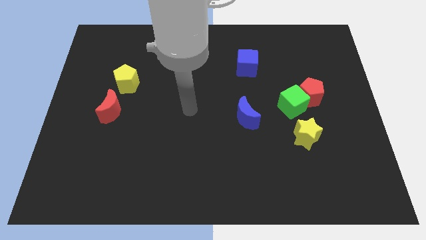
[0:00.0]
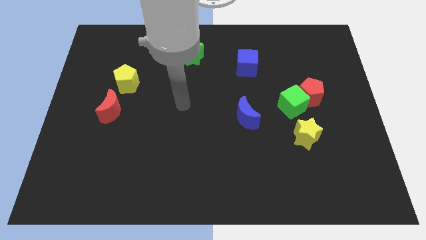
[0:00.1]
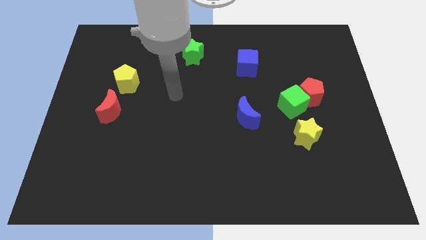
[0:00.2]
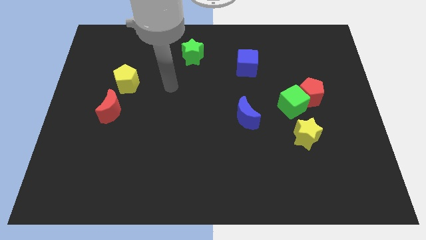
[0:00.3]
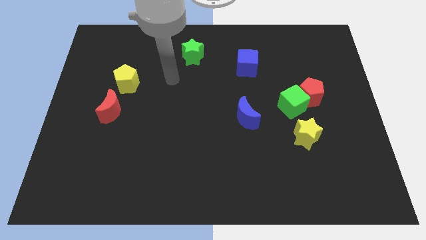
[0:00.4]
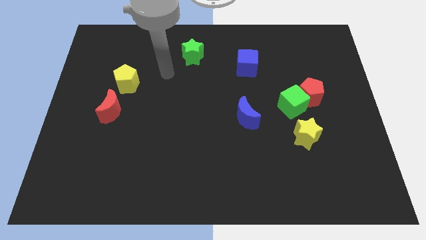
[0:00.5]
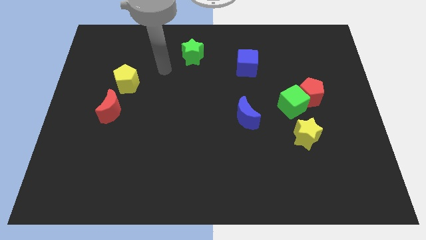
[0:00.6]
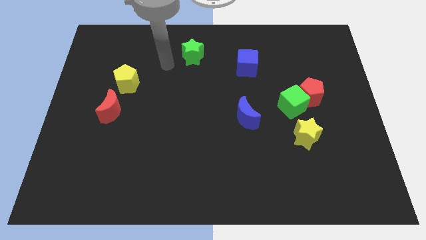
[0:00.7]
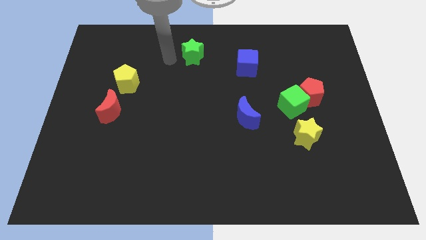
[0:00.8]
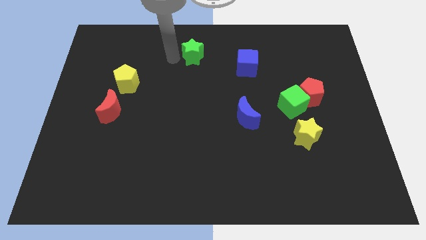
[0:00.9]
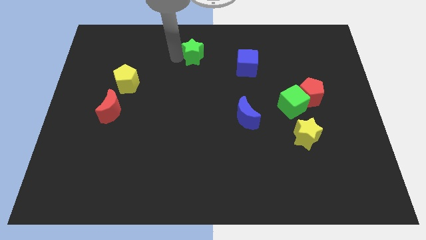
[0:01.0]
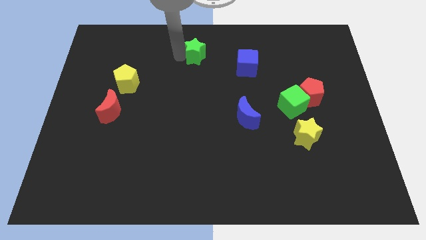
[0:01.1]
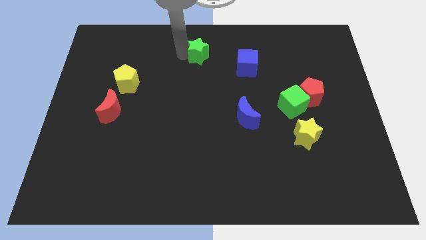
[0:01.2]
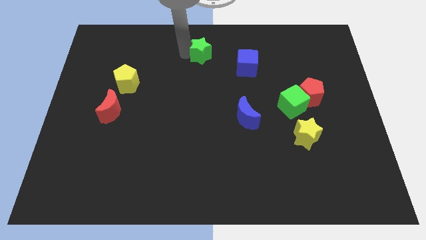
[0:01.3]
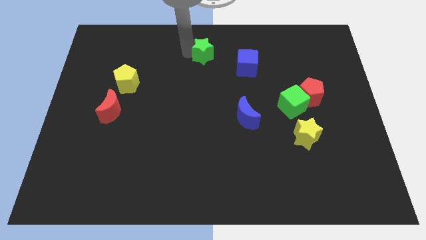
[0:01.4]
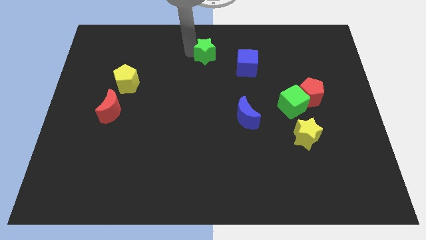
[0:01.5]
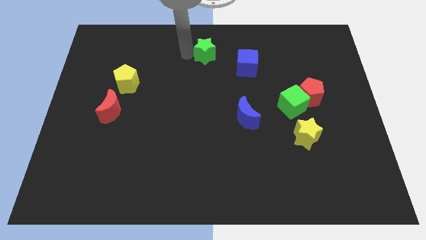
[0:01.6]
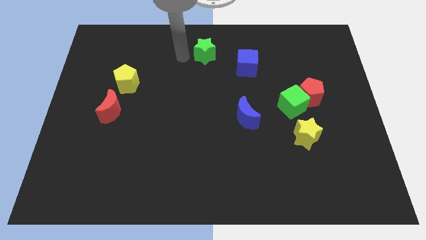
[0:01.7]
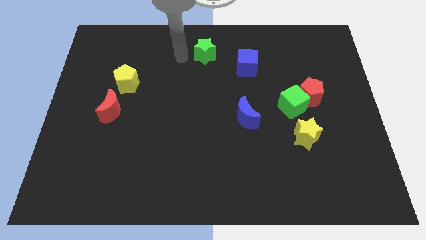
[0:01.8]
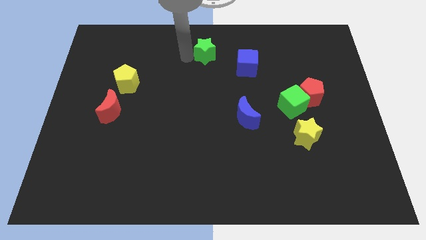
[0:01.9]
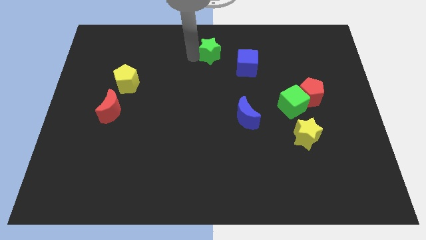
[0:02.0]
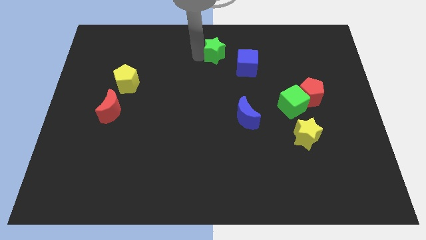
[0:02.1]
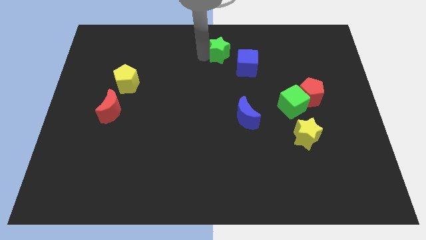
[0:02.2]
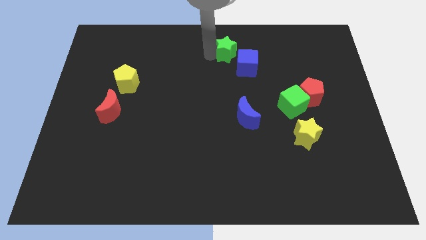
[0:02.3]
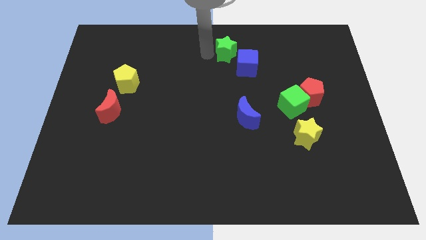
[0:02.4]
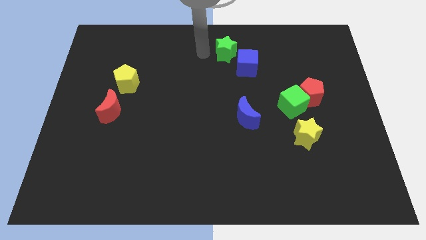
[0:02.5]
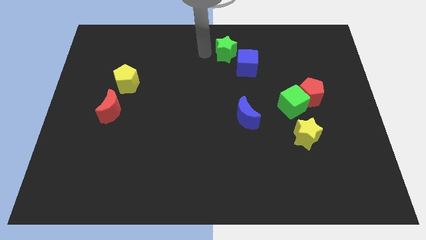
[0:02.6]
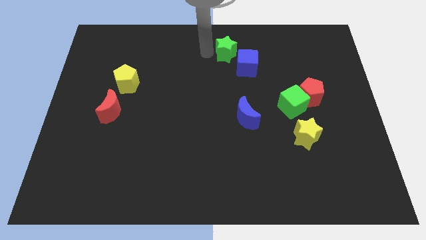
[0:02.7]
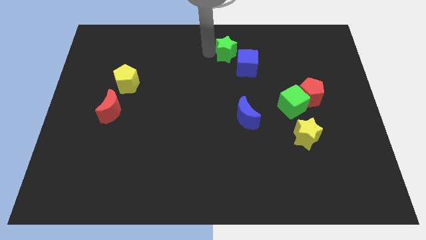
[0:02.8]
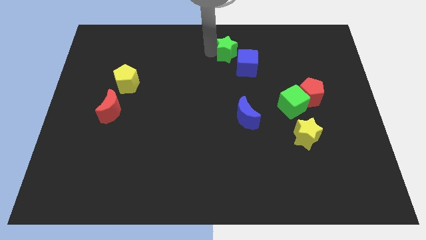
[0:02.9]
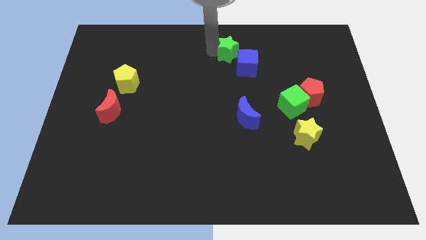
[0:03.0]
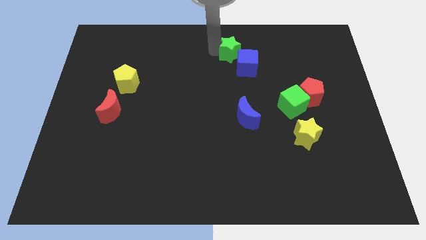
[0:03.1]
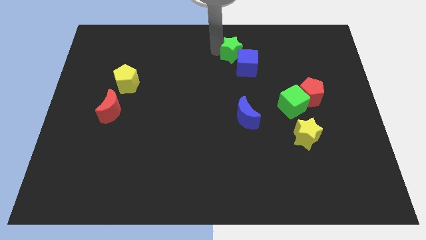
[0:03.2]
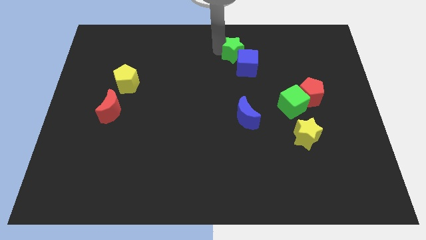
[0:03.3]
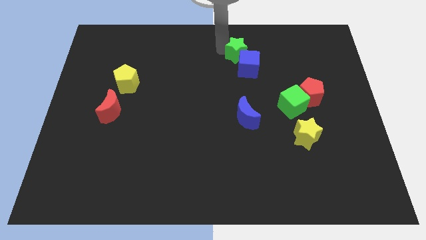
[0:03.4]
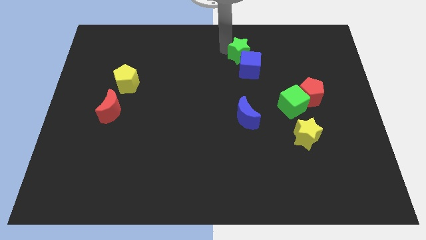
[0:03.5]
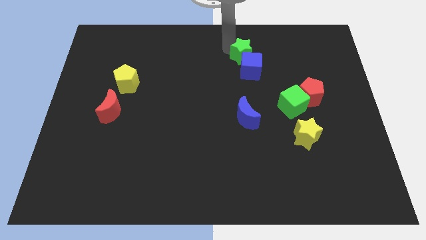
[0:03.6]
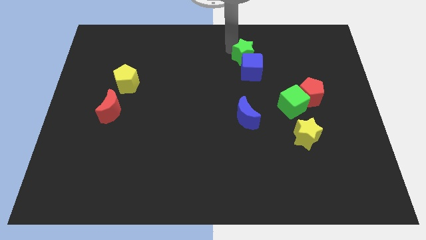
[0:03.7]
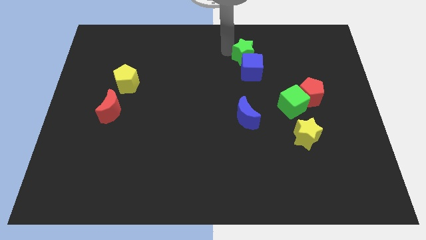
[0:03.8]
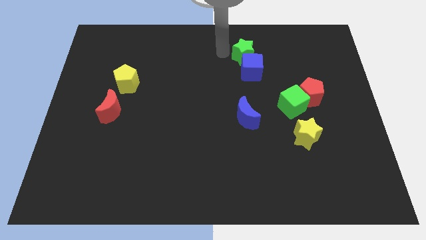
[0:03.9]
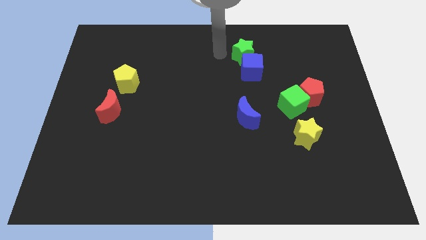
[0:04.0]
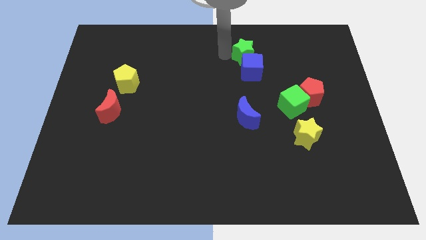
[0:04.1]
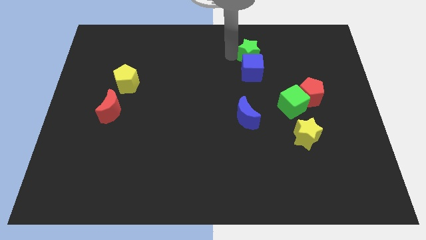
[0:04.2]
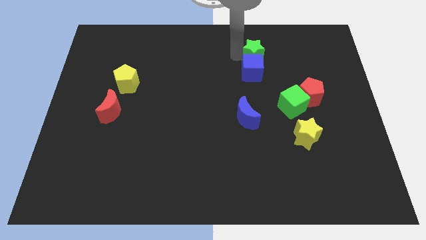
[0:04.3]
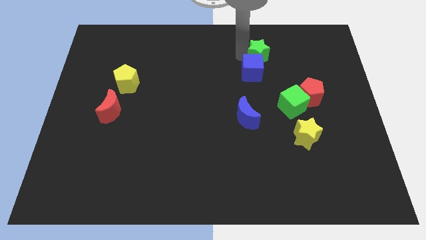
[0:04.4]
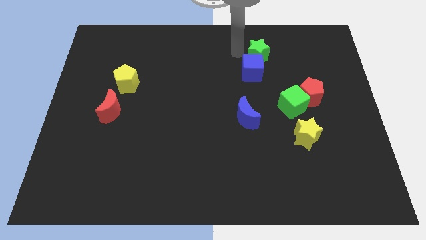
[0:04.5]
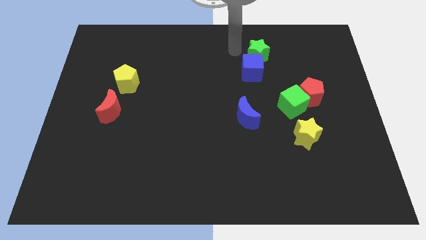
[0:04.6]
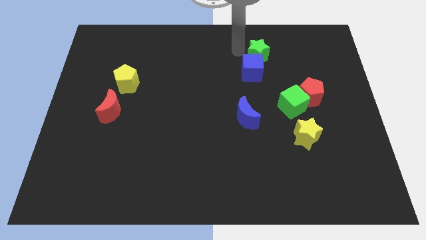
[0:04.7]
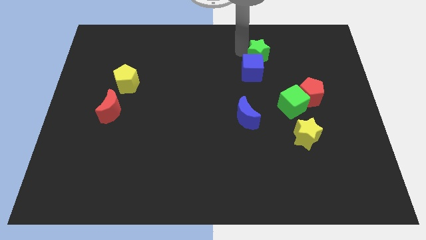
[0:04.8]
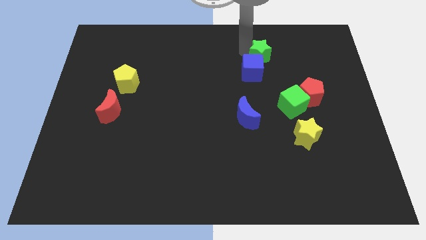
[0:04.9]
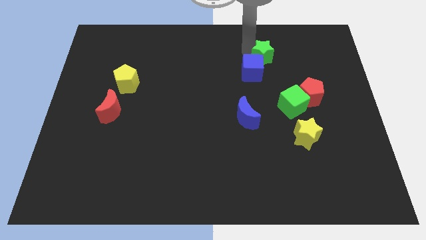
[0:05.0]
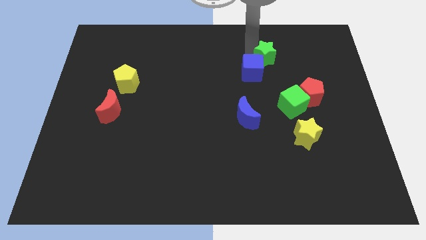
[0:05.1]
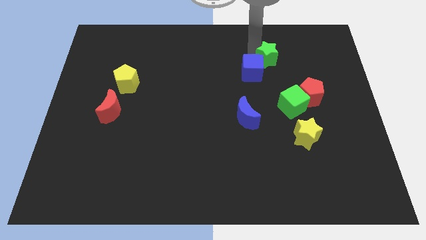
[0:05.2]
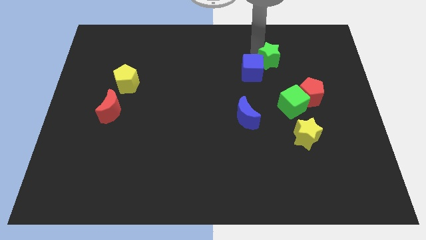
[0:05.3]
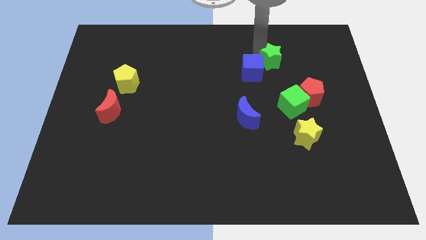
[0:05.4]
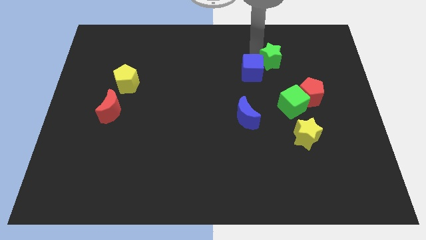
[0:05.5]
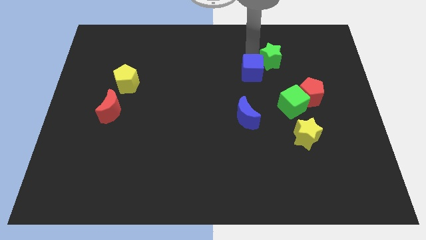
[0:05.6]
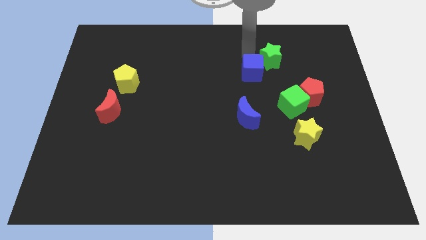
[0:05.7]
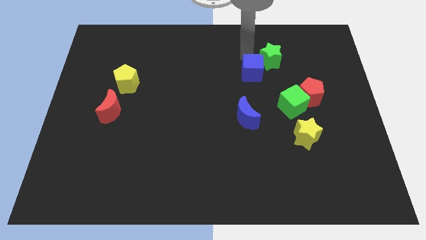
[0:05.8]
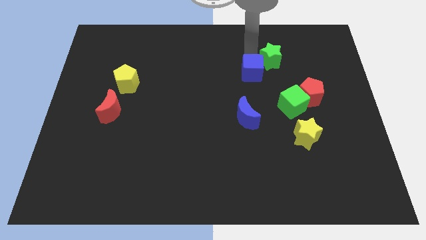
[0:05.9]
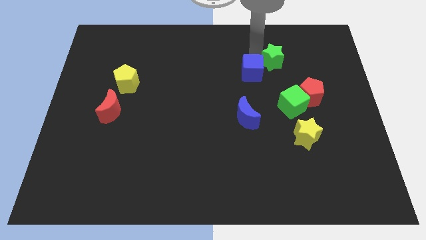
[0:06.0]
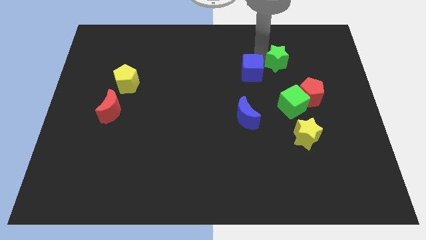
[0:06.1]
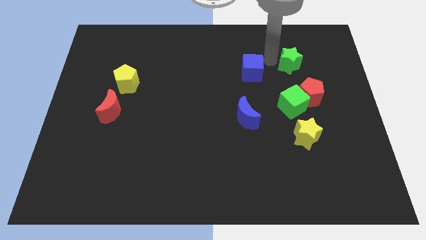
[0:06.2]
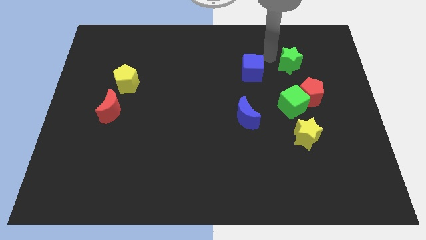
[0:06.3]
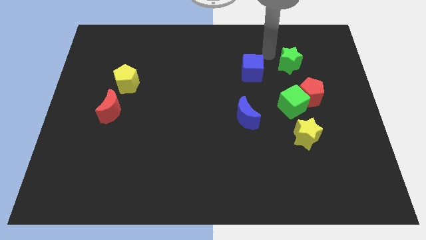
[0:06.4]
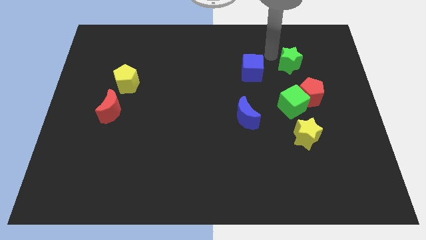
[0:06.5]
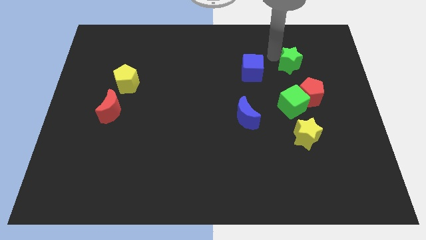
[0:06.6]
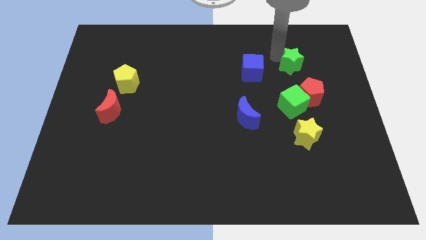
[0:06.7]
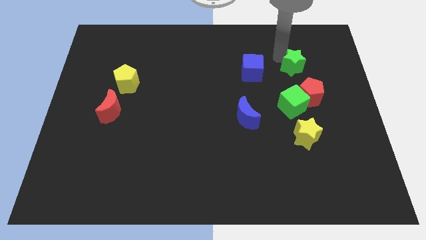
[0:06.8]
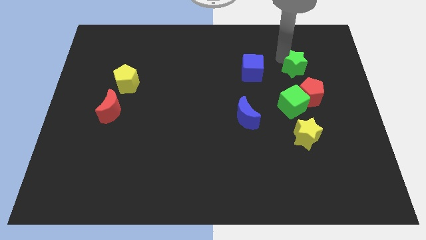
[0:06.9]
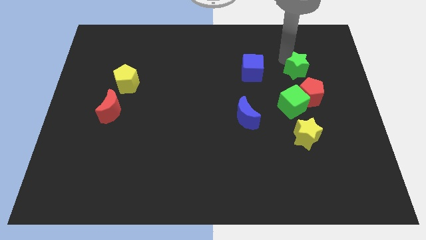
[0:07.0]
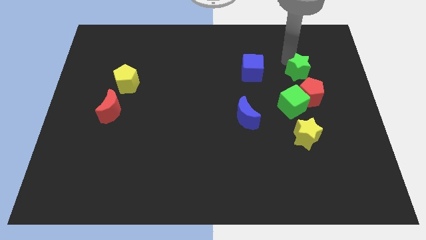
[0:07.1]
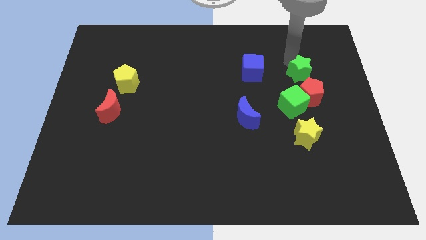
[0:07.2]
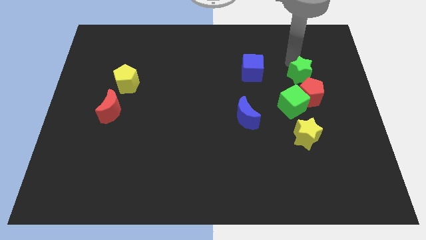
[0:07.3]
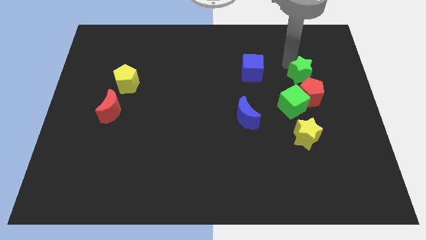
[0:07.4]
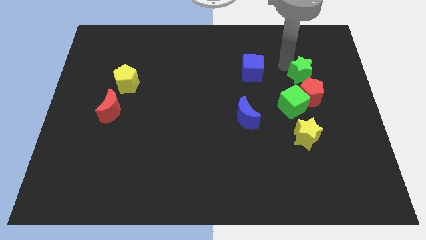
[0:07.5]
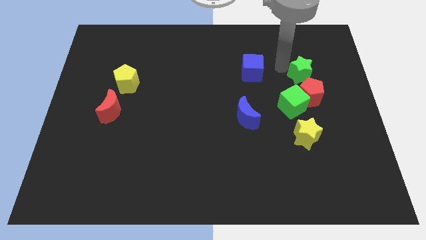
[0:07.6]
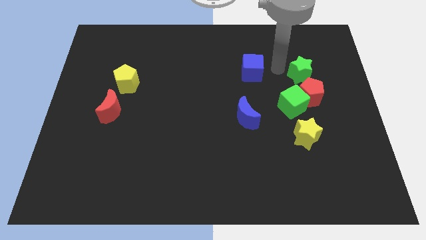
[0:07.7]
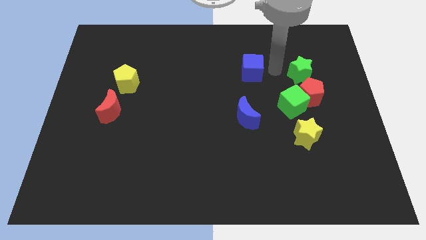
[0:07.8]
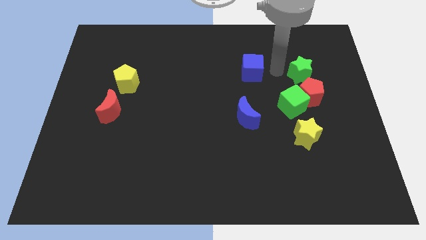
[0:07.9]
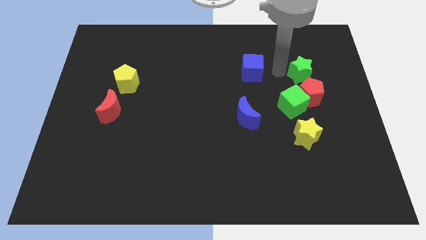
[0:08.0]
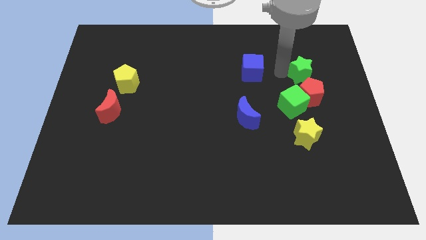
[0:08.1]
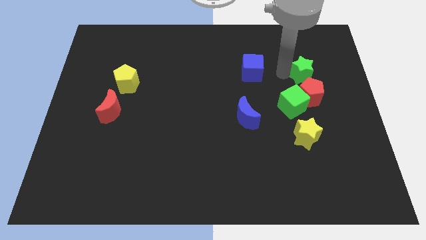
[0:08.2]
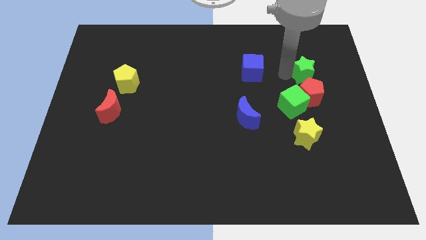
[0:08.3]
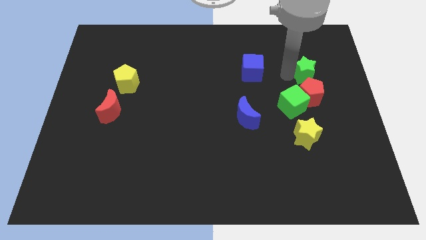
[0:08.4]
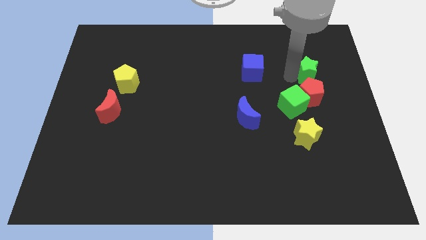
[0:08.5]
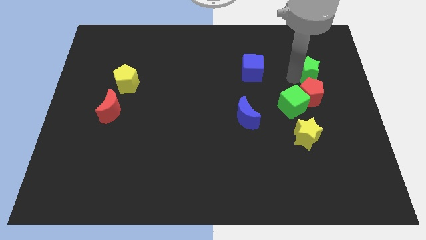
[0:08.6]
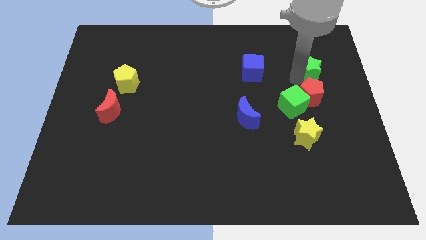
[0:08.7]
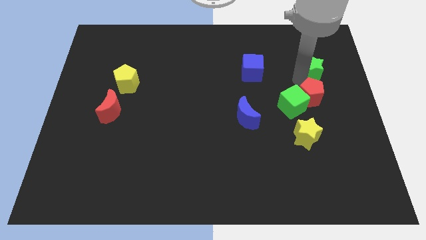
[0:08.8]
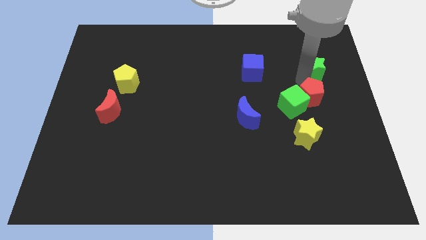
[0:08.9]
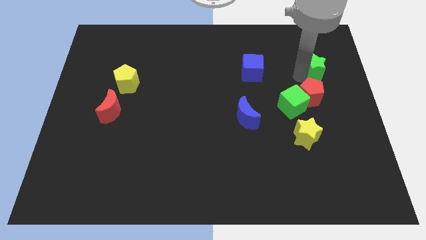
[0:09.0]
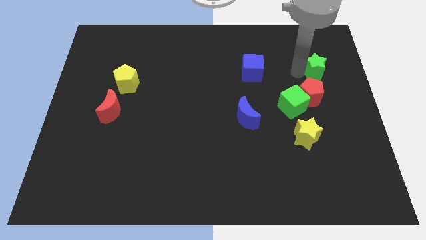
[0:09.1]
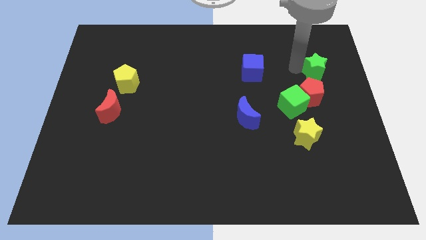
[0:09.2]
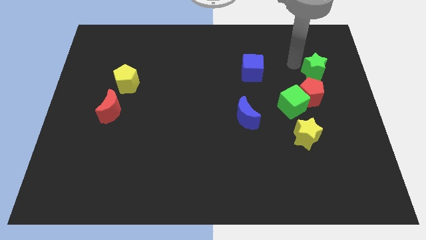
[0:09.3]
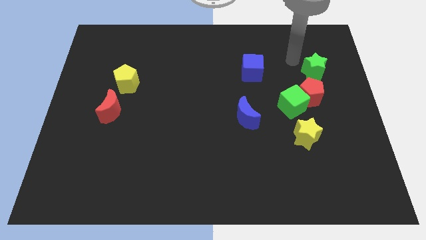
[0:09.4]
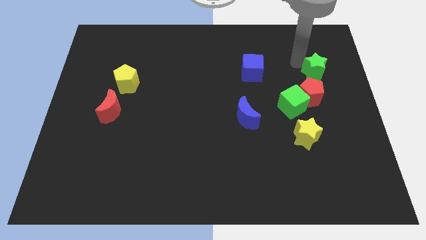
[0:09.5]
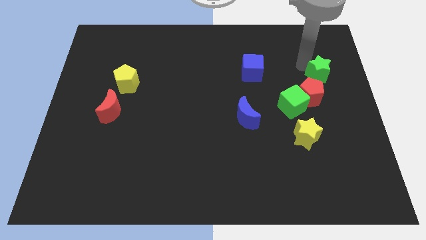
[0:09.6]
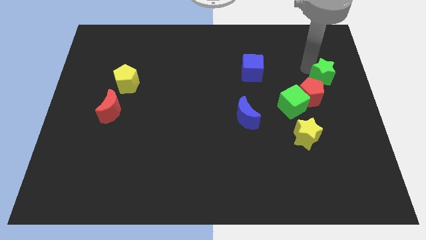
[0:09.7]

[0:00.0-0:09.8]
move the green star to the right side
